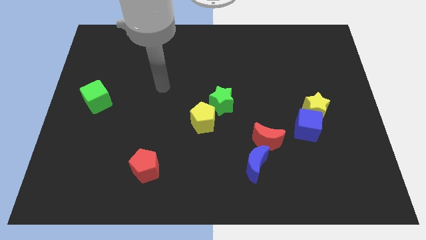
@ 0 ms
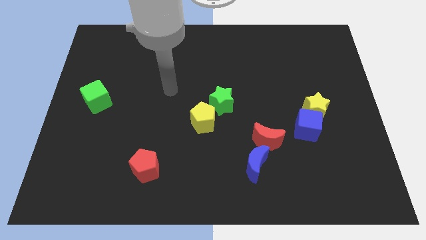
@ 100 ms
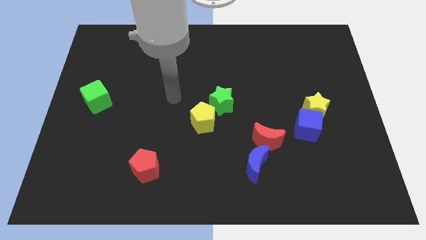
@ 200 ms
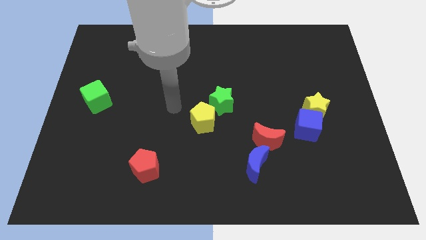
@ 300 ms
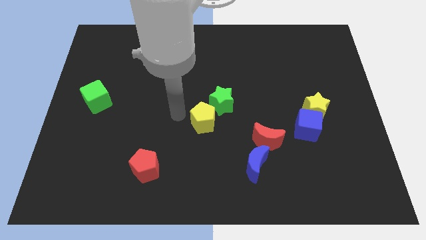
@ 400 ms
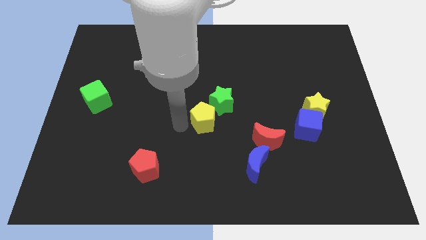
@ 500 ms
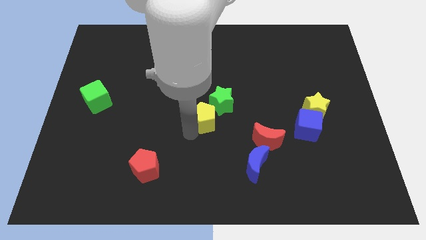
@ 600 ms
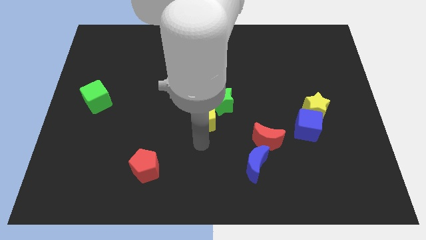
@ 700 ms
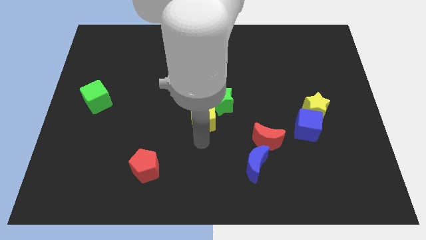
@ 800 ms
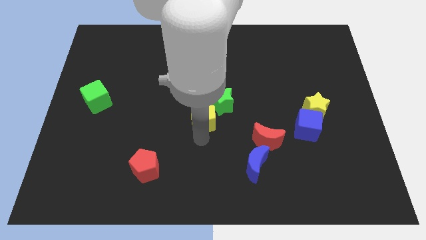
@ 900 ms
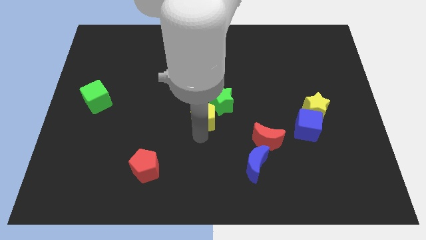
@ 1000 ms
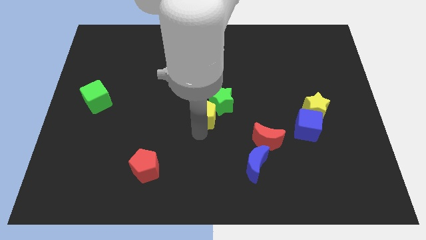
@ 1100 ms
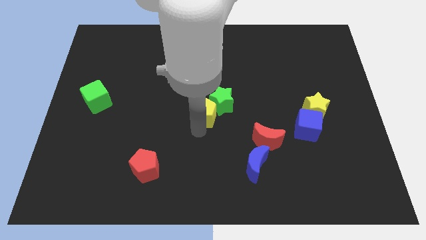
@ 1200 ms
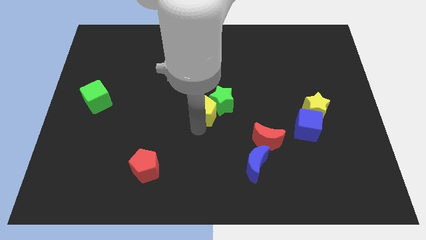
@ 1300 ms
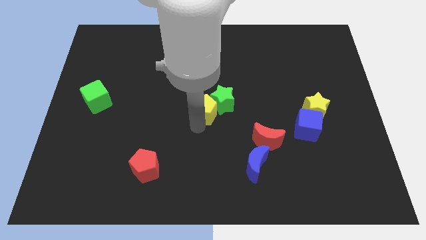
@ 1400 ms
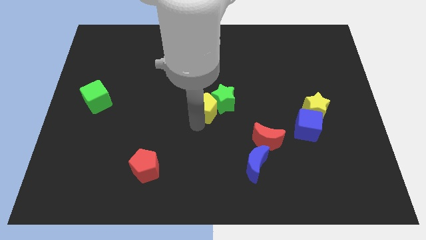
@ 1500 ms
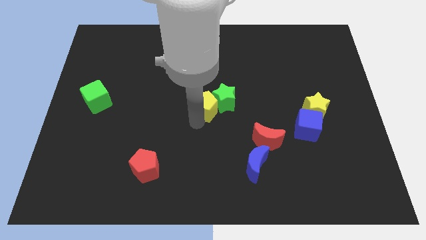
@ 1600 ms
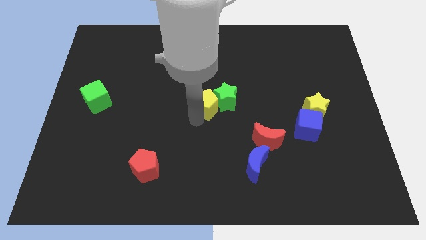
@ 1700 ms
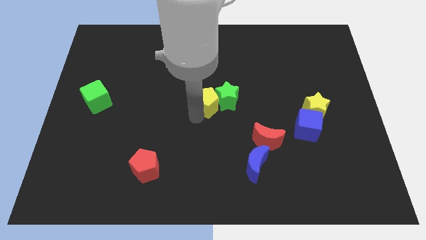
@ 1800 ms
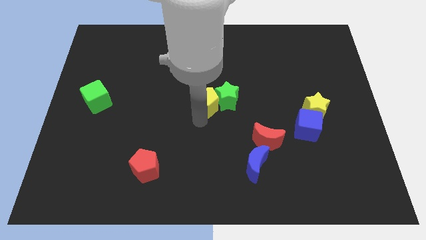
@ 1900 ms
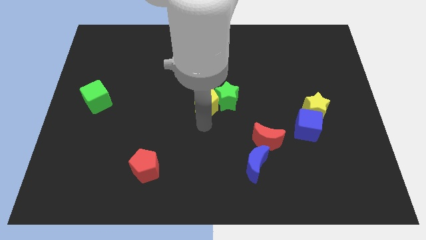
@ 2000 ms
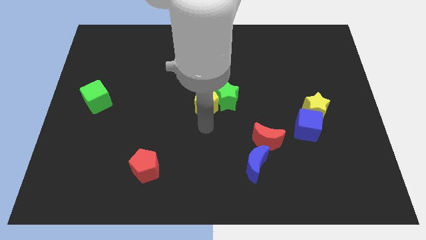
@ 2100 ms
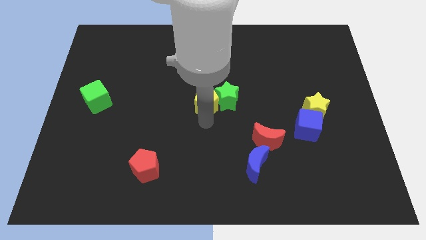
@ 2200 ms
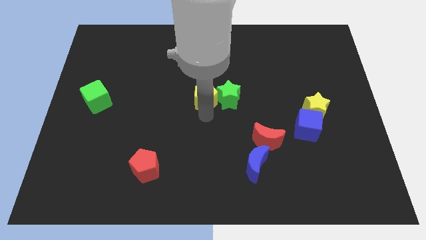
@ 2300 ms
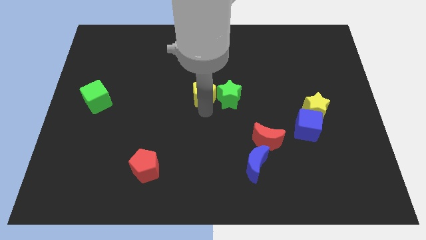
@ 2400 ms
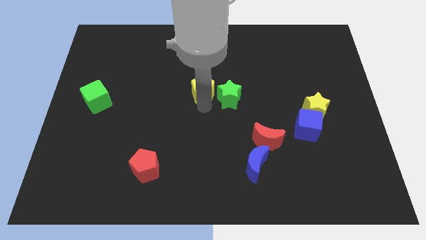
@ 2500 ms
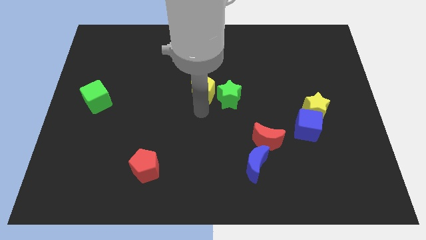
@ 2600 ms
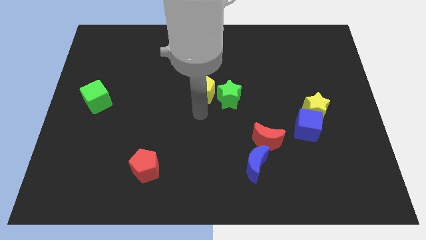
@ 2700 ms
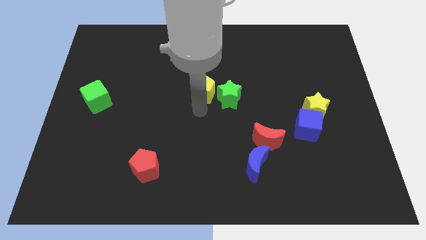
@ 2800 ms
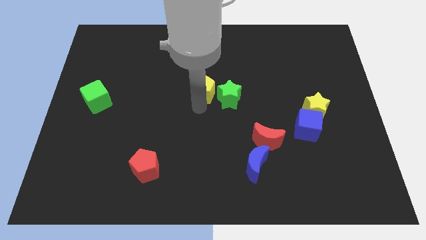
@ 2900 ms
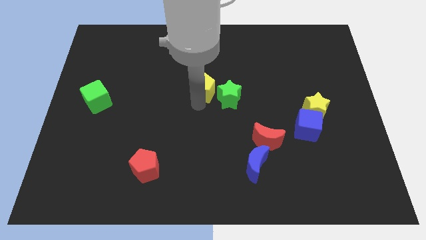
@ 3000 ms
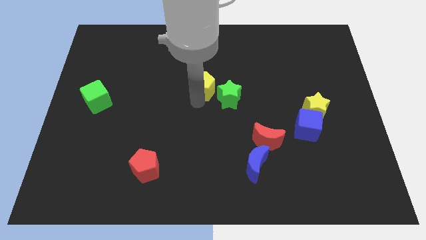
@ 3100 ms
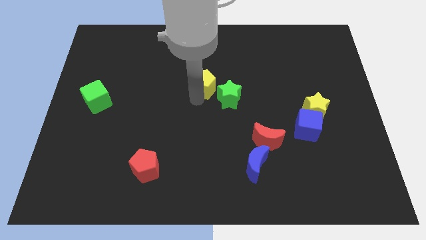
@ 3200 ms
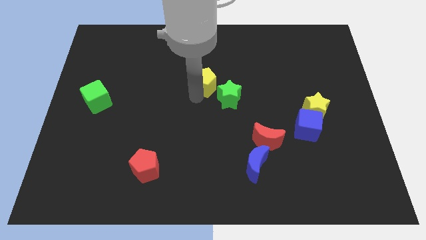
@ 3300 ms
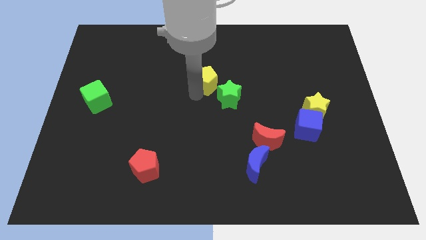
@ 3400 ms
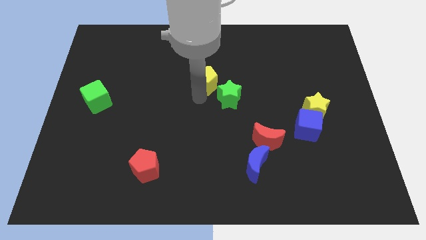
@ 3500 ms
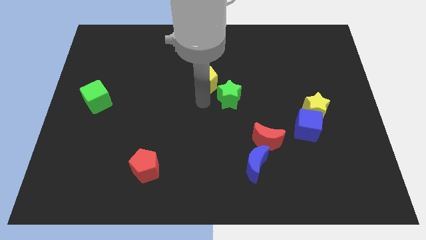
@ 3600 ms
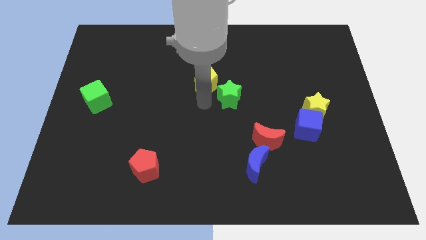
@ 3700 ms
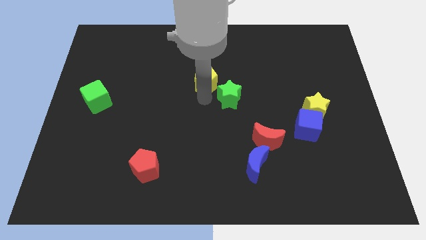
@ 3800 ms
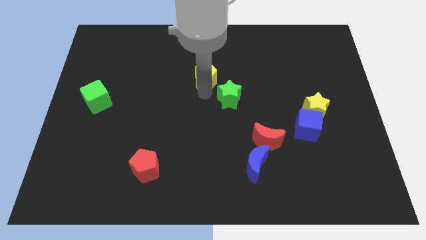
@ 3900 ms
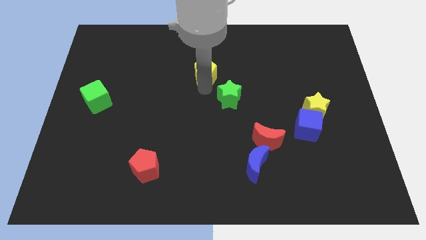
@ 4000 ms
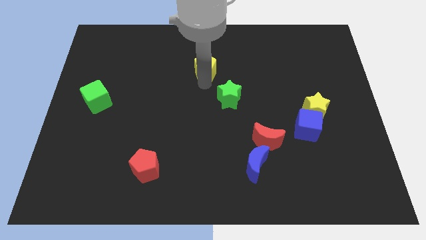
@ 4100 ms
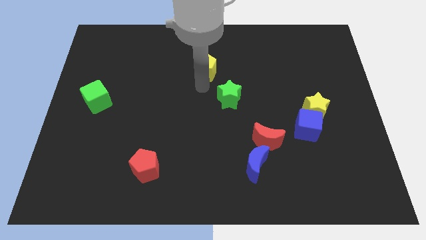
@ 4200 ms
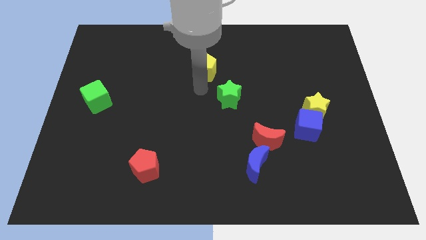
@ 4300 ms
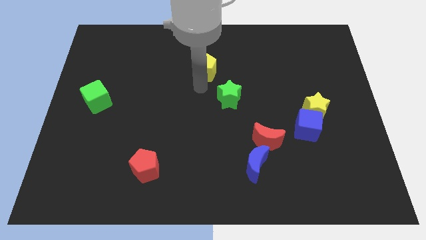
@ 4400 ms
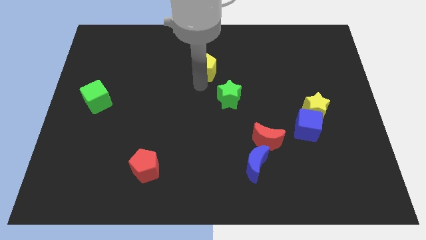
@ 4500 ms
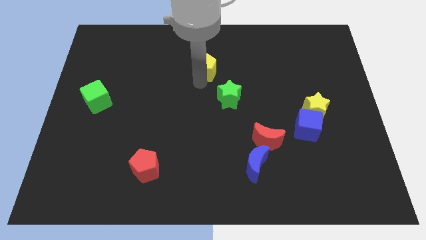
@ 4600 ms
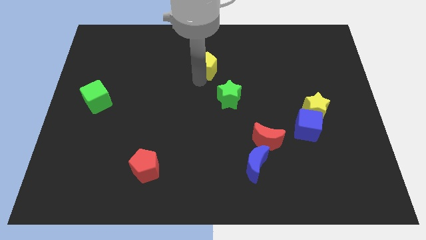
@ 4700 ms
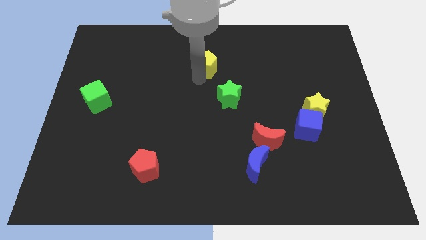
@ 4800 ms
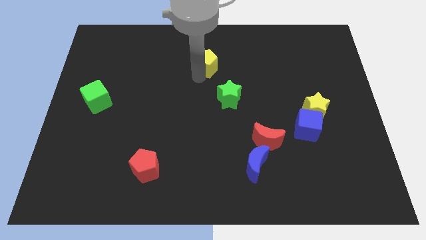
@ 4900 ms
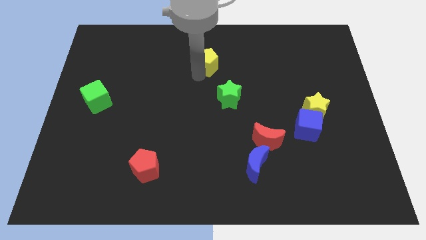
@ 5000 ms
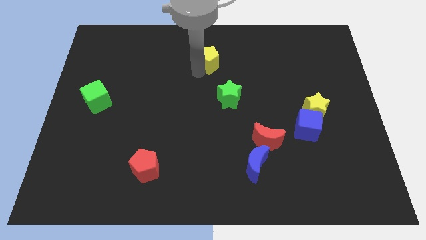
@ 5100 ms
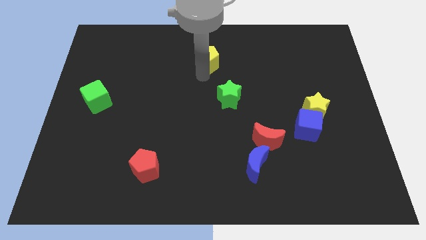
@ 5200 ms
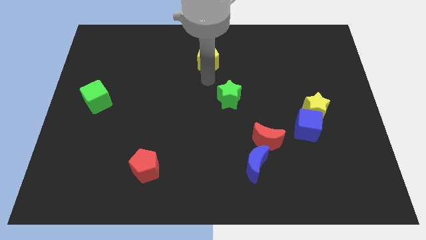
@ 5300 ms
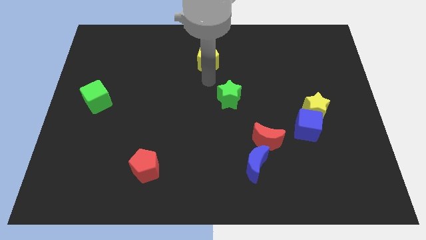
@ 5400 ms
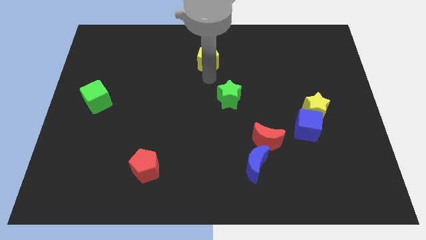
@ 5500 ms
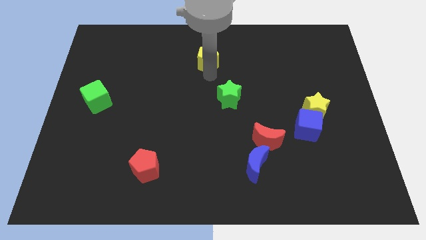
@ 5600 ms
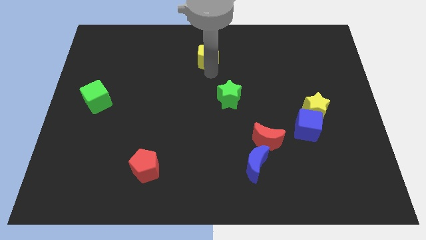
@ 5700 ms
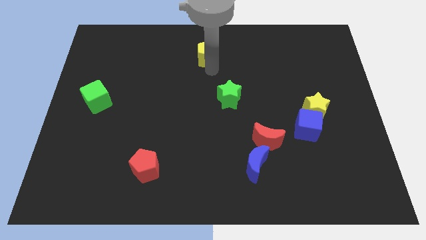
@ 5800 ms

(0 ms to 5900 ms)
move the yellow pentagon to the towards your base

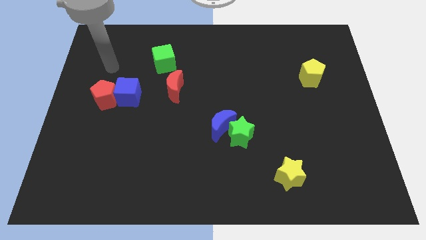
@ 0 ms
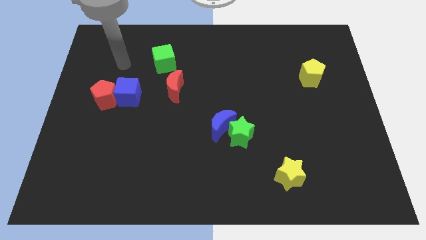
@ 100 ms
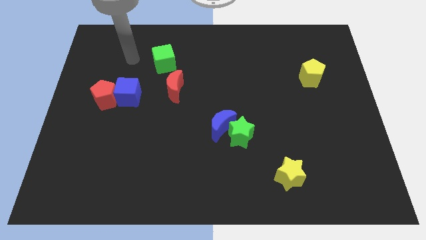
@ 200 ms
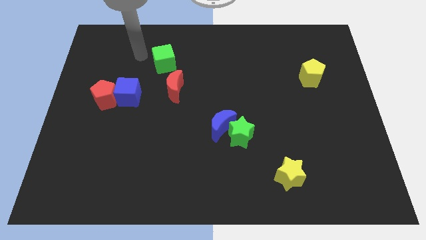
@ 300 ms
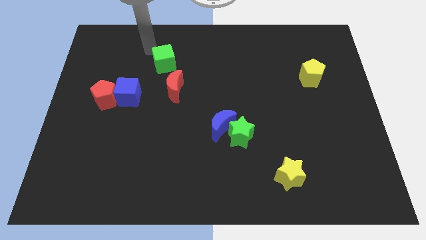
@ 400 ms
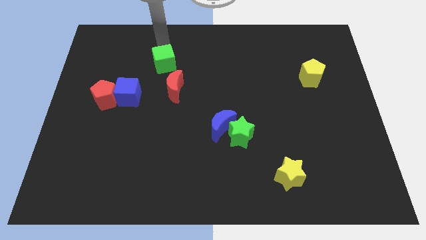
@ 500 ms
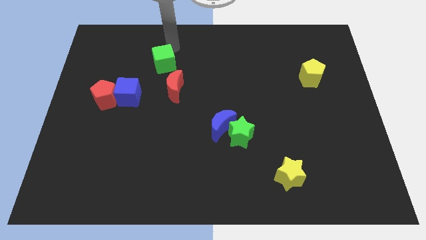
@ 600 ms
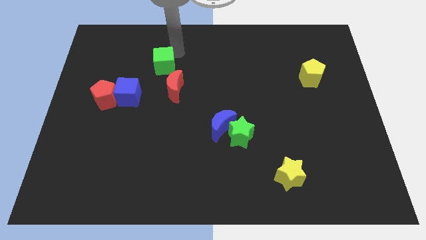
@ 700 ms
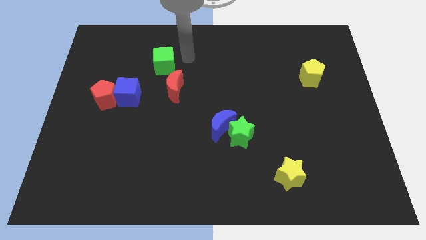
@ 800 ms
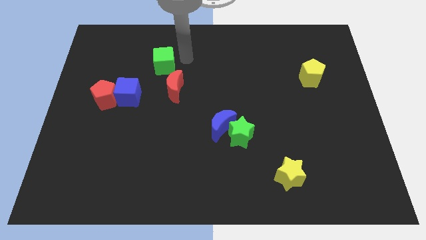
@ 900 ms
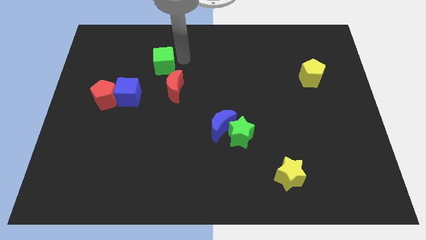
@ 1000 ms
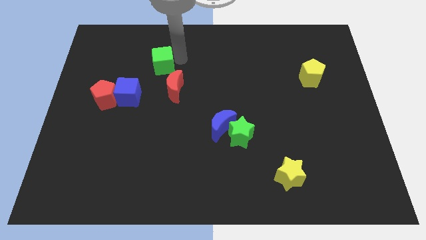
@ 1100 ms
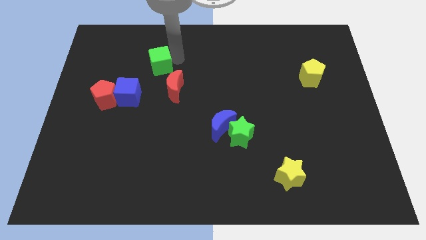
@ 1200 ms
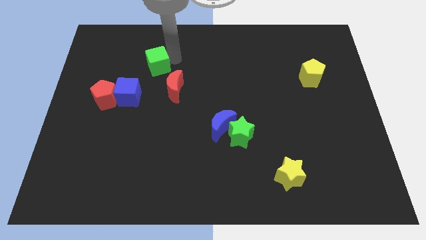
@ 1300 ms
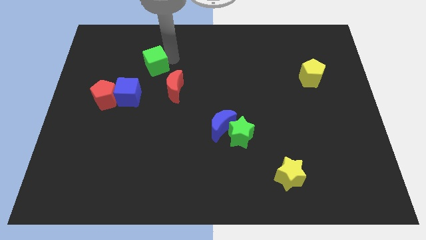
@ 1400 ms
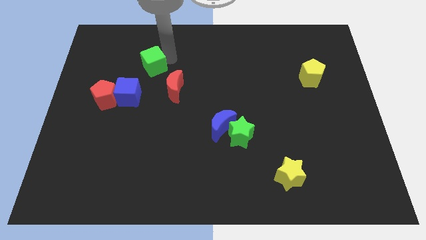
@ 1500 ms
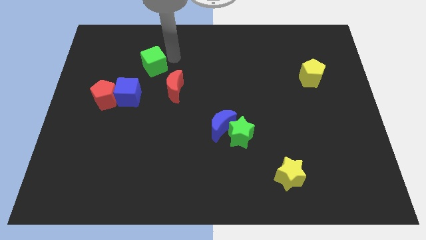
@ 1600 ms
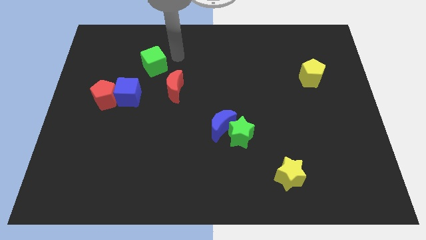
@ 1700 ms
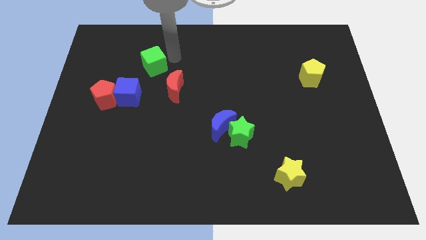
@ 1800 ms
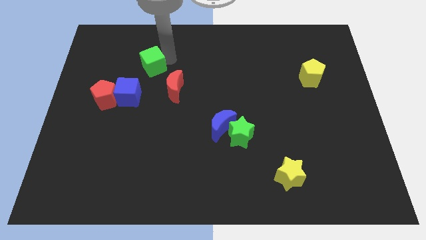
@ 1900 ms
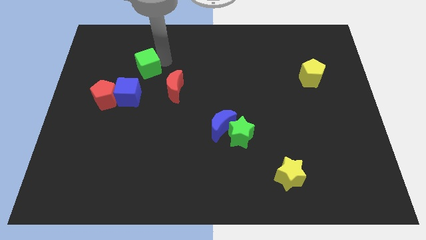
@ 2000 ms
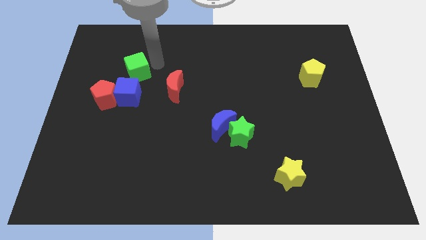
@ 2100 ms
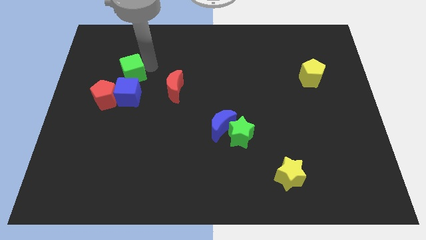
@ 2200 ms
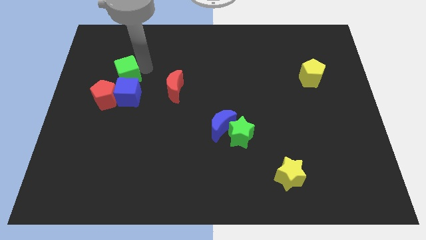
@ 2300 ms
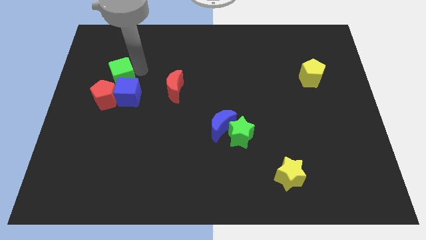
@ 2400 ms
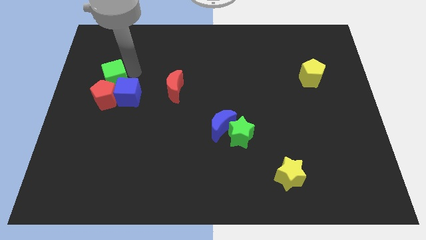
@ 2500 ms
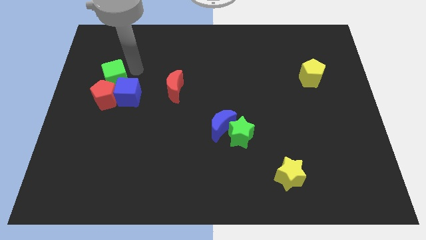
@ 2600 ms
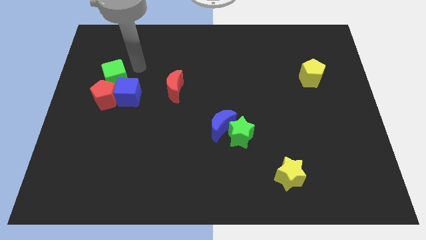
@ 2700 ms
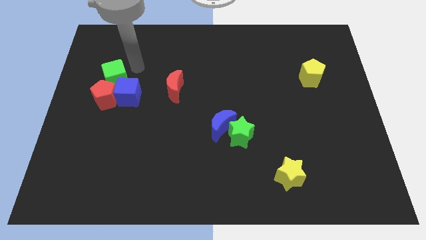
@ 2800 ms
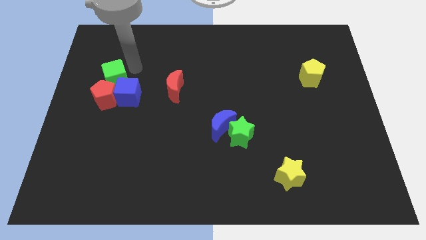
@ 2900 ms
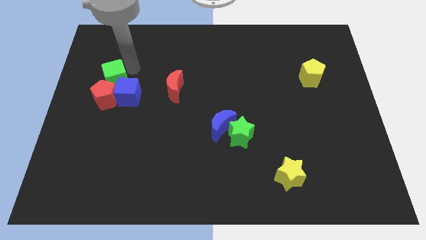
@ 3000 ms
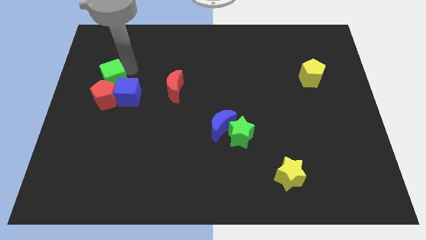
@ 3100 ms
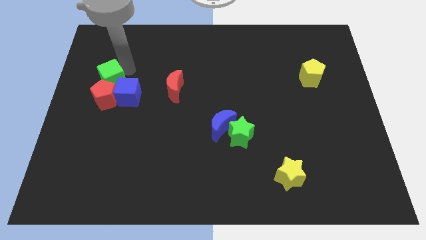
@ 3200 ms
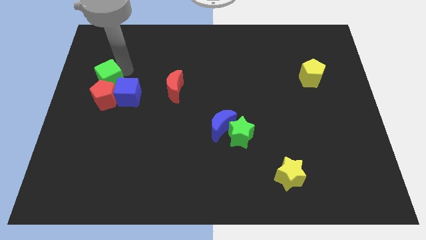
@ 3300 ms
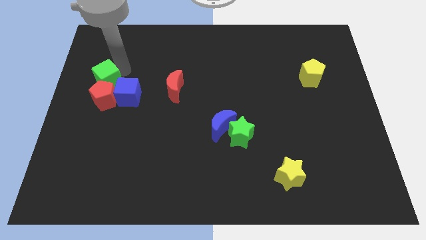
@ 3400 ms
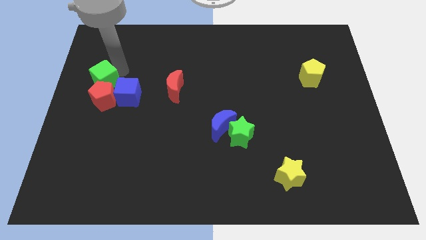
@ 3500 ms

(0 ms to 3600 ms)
slide the green cube to the left side of the board
